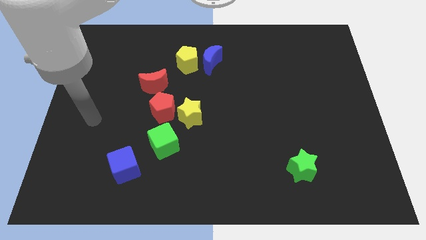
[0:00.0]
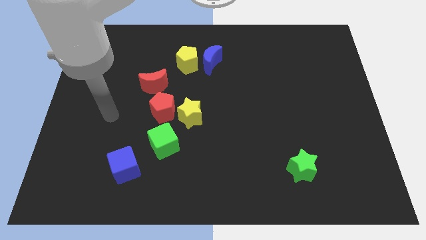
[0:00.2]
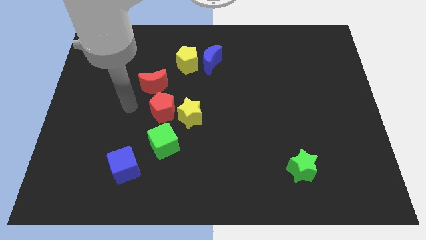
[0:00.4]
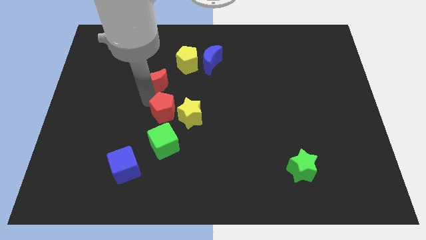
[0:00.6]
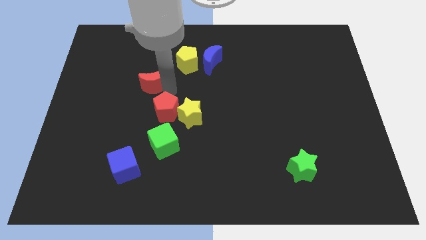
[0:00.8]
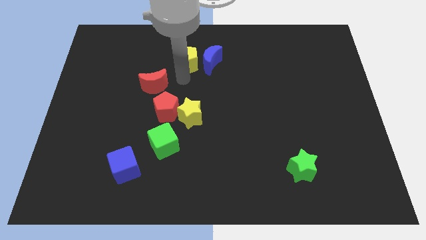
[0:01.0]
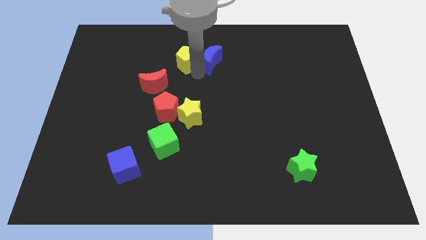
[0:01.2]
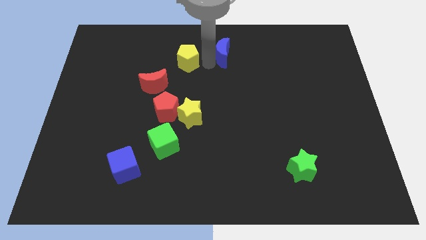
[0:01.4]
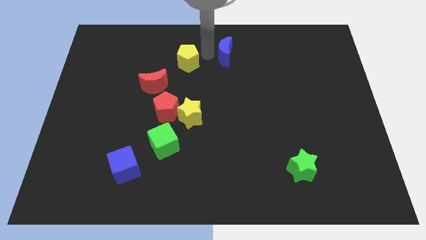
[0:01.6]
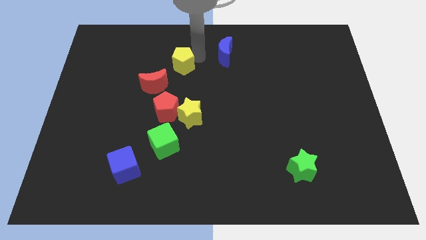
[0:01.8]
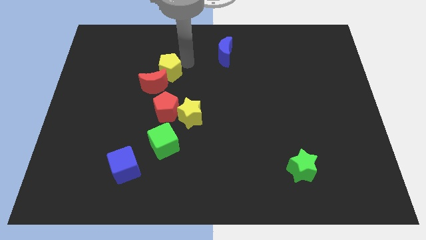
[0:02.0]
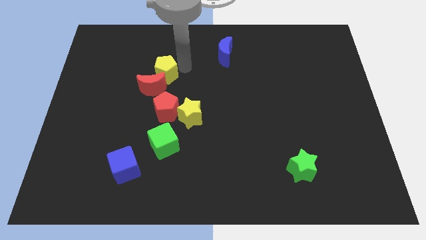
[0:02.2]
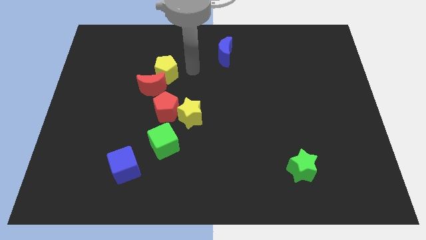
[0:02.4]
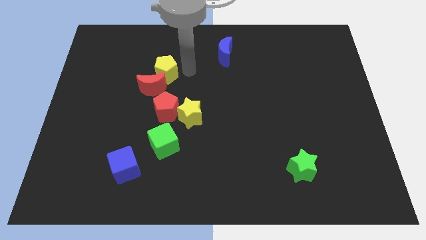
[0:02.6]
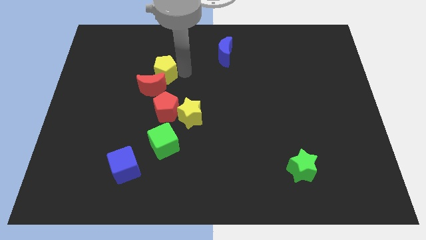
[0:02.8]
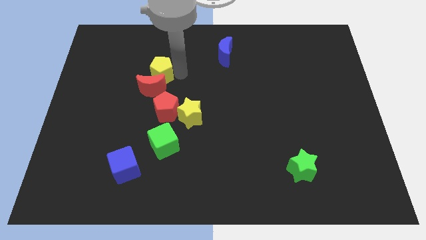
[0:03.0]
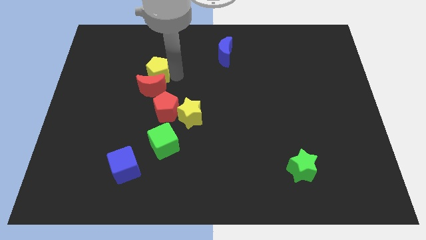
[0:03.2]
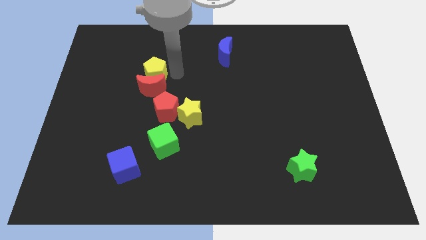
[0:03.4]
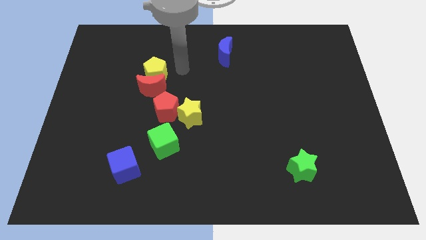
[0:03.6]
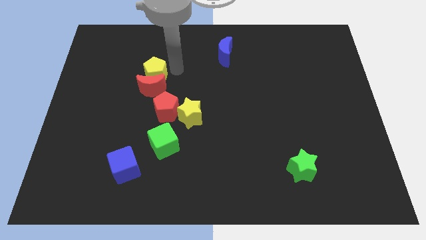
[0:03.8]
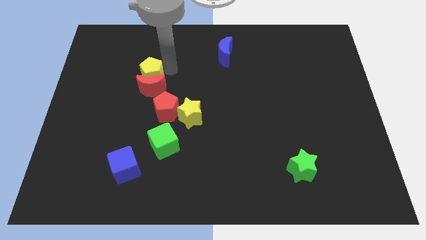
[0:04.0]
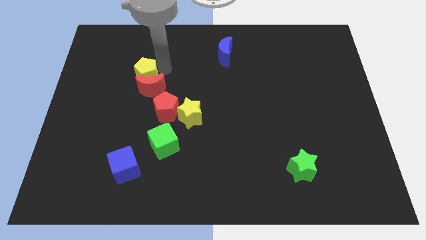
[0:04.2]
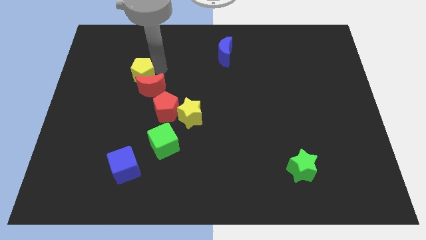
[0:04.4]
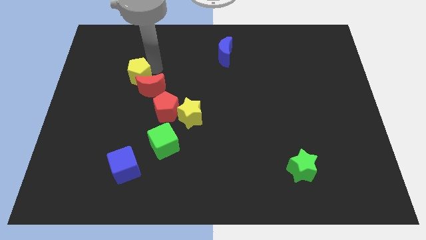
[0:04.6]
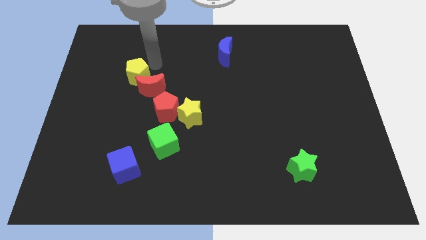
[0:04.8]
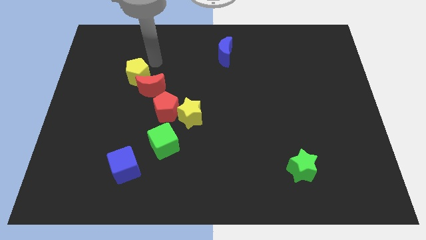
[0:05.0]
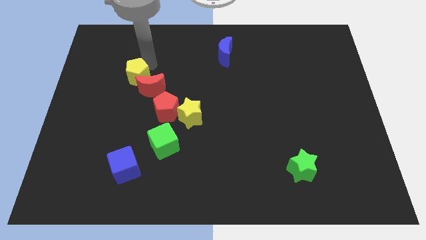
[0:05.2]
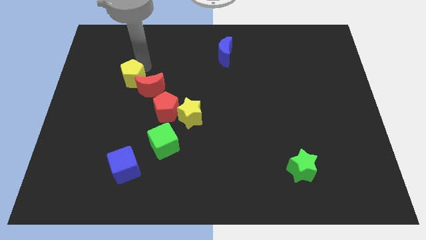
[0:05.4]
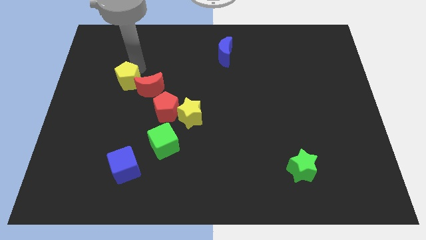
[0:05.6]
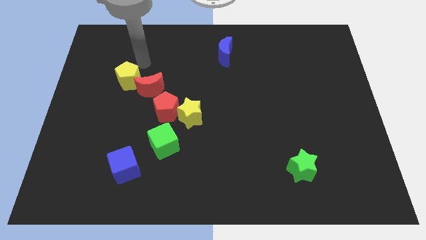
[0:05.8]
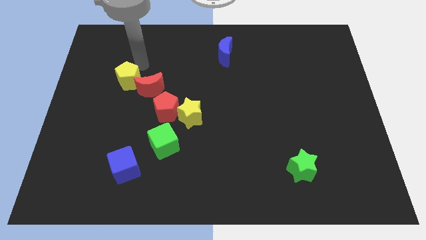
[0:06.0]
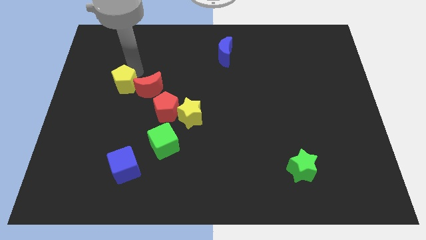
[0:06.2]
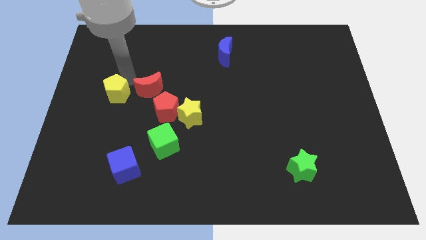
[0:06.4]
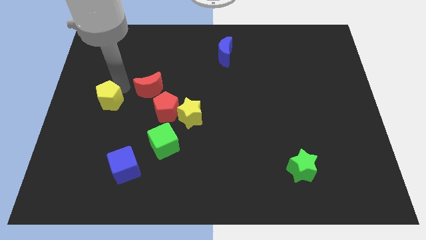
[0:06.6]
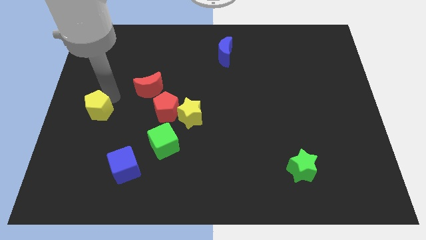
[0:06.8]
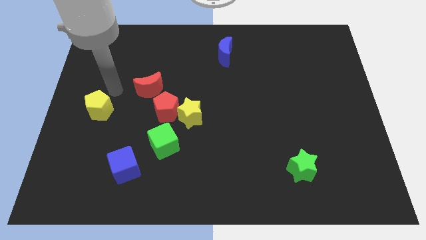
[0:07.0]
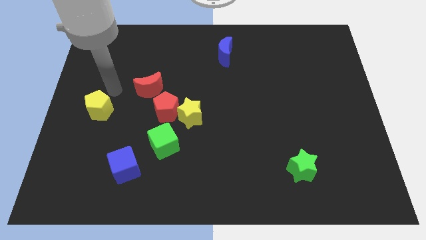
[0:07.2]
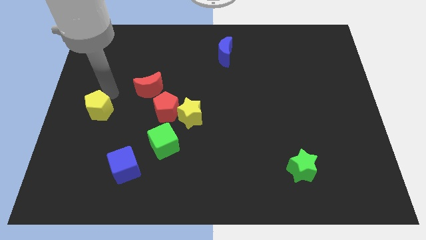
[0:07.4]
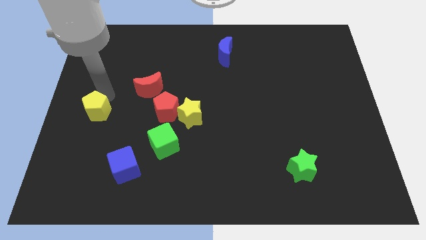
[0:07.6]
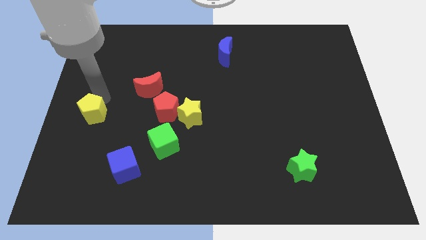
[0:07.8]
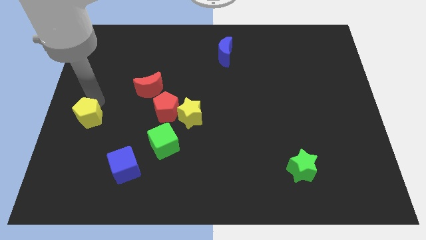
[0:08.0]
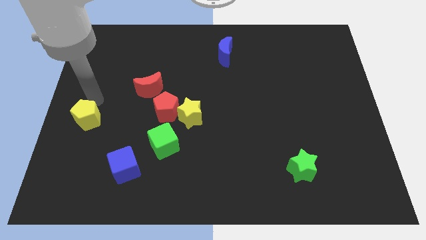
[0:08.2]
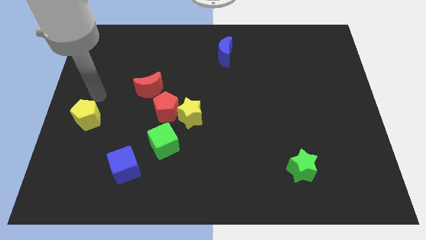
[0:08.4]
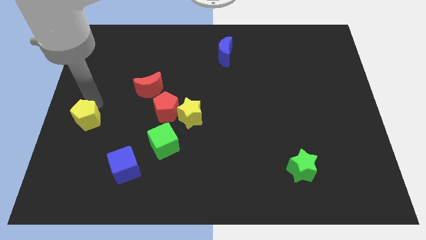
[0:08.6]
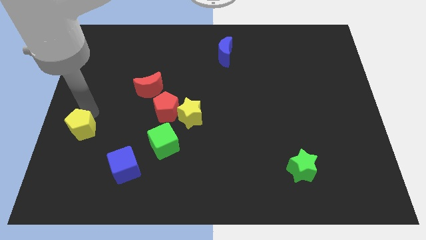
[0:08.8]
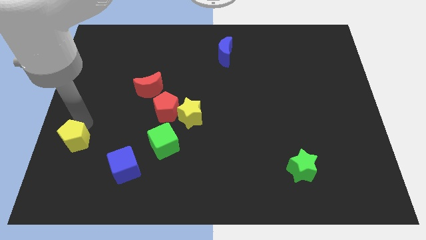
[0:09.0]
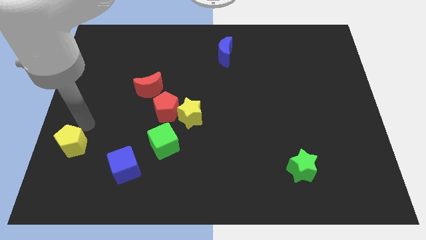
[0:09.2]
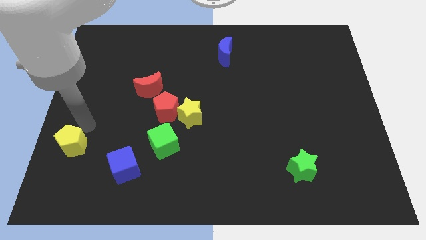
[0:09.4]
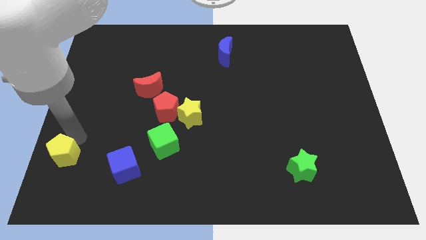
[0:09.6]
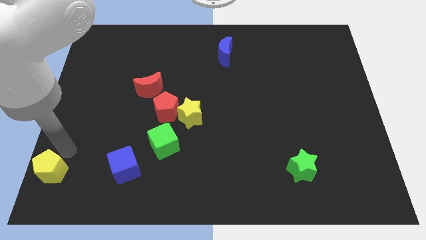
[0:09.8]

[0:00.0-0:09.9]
put the yellow pentagon to the lower left corner

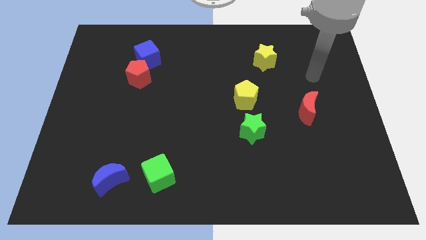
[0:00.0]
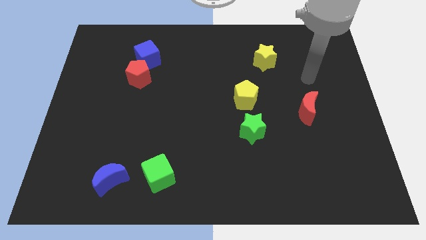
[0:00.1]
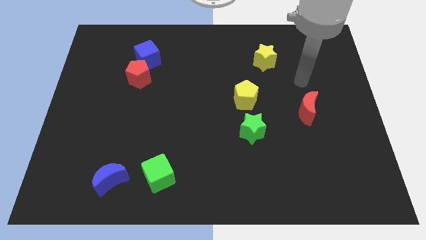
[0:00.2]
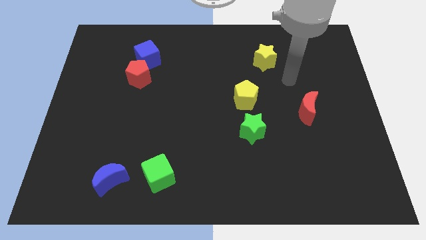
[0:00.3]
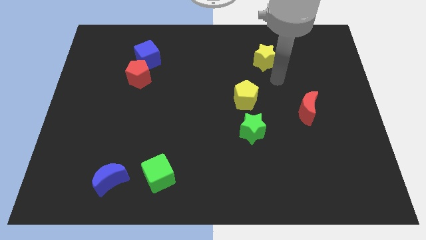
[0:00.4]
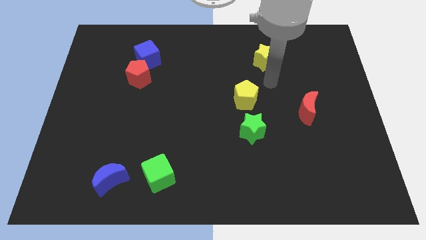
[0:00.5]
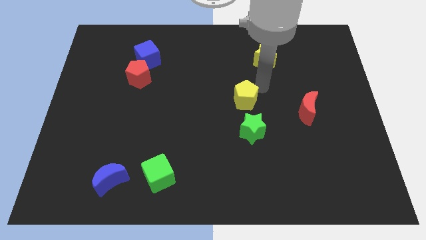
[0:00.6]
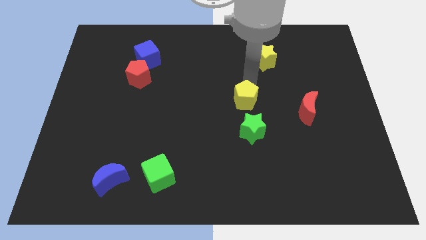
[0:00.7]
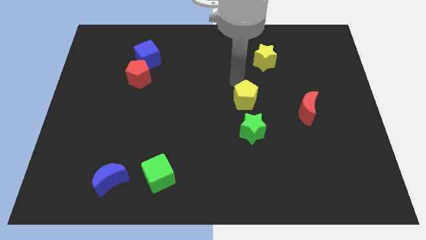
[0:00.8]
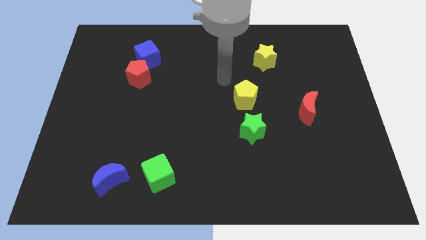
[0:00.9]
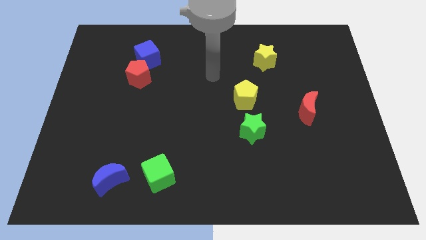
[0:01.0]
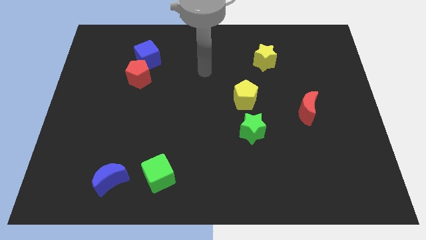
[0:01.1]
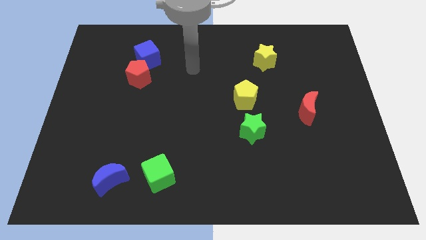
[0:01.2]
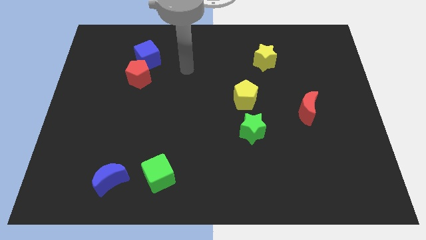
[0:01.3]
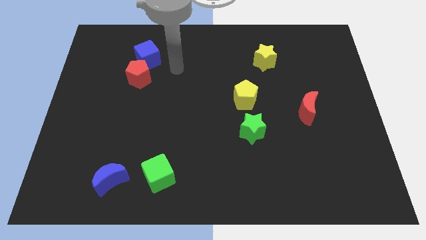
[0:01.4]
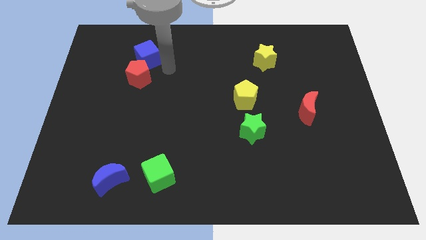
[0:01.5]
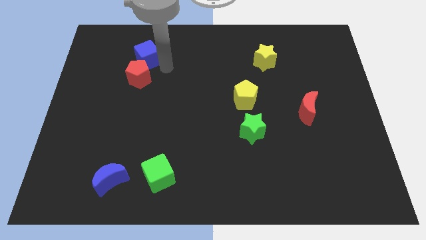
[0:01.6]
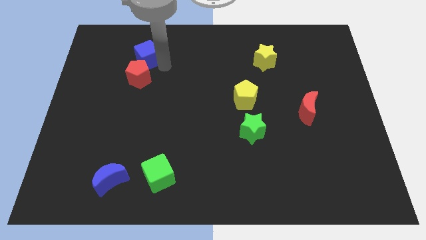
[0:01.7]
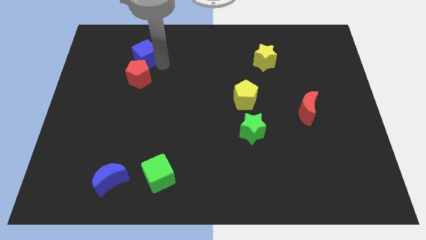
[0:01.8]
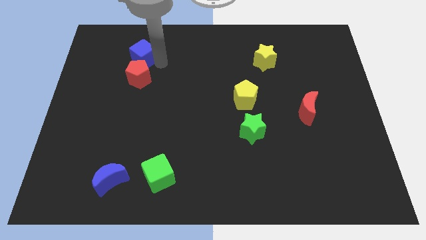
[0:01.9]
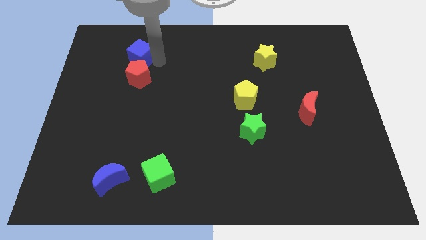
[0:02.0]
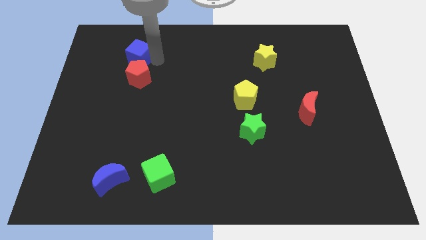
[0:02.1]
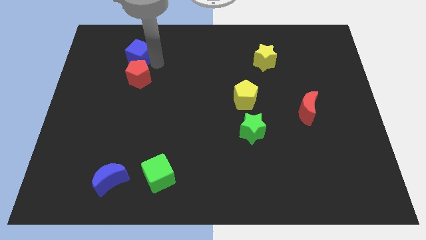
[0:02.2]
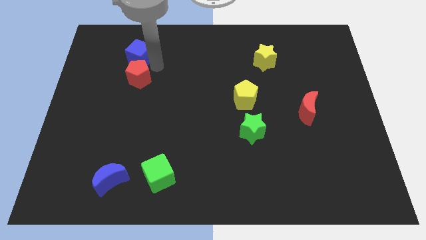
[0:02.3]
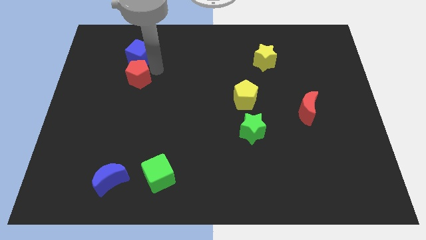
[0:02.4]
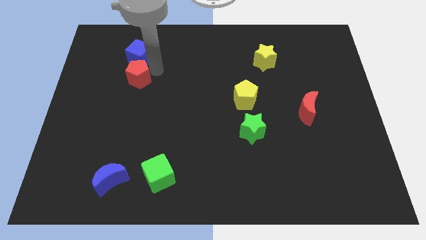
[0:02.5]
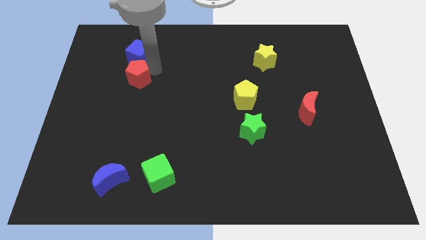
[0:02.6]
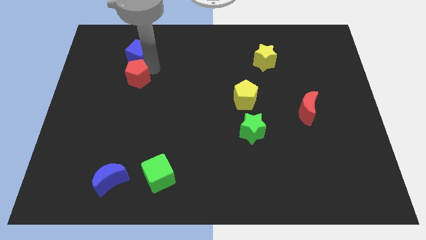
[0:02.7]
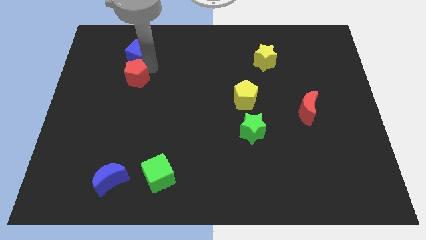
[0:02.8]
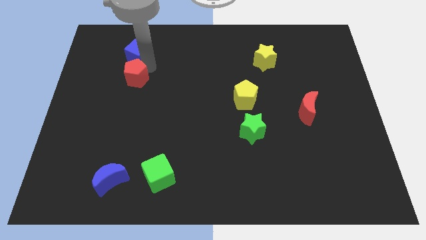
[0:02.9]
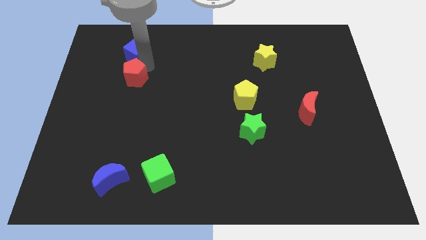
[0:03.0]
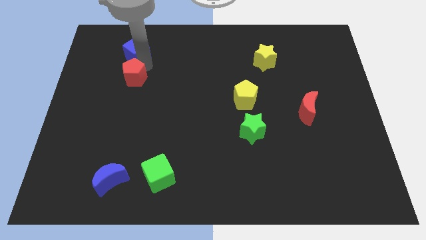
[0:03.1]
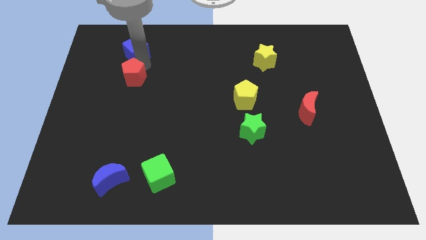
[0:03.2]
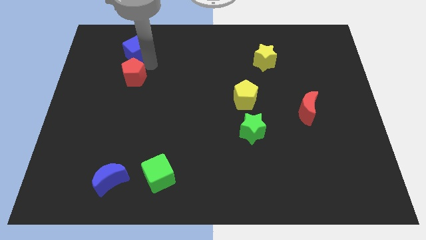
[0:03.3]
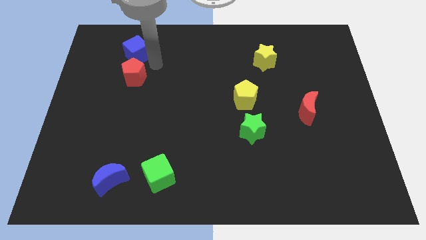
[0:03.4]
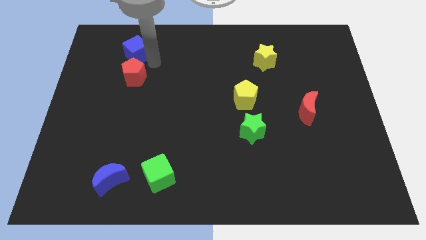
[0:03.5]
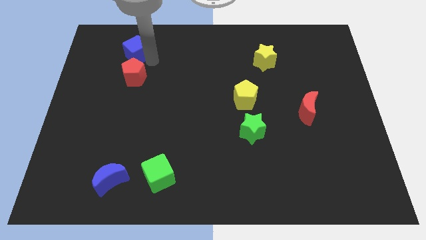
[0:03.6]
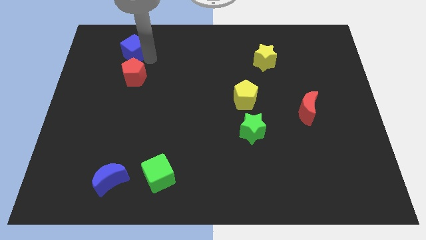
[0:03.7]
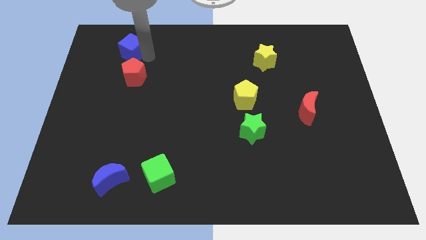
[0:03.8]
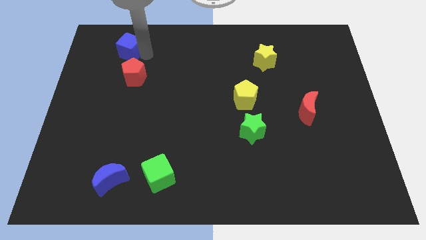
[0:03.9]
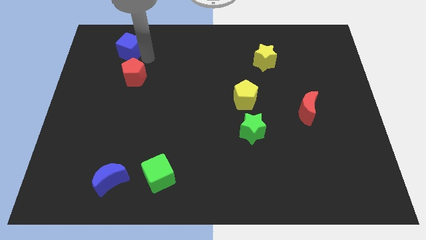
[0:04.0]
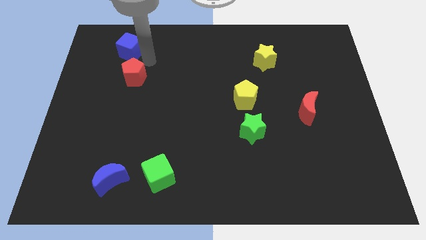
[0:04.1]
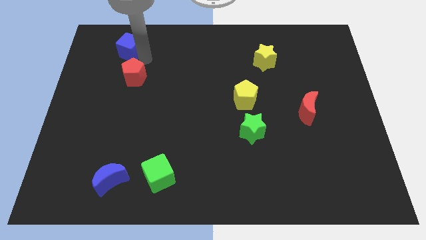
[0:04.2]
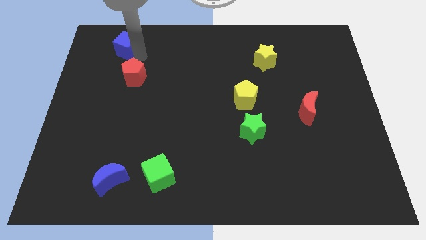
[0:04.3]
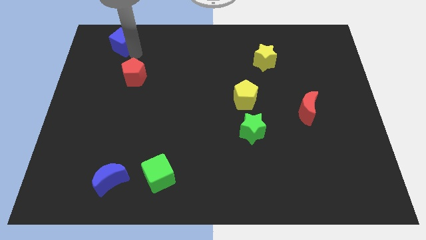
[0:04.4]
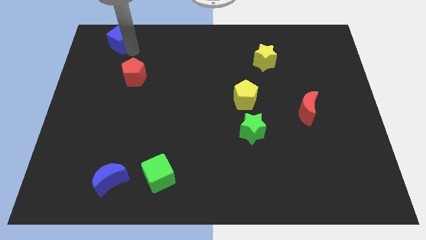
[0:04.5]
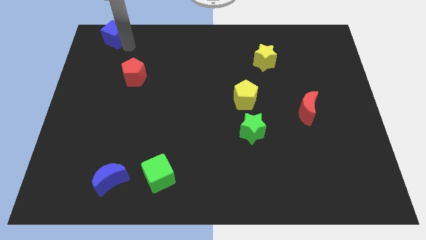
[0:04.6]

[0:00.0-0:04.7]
push the blue cube to the upper left corner
